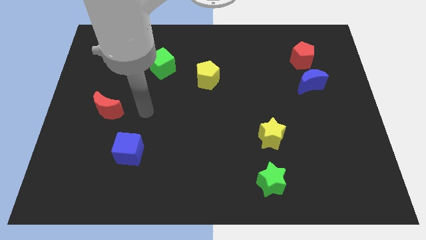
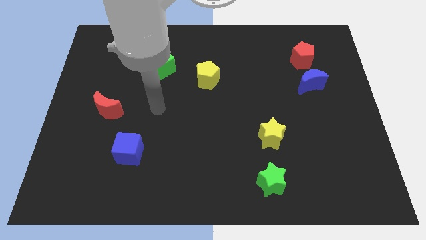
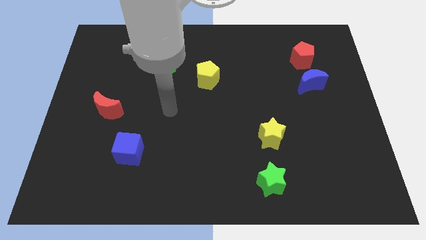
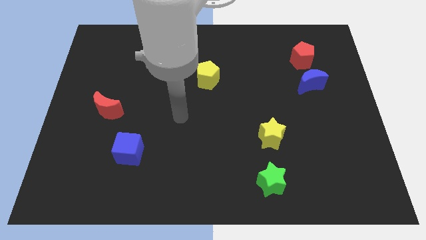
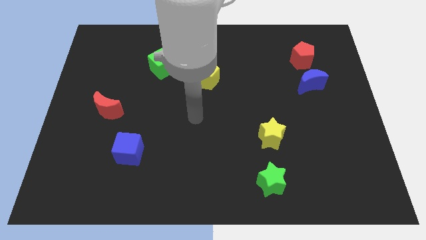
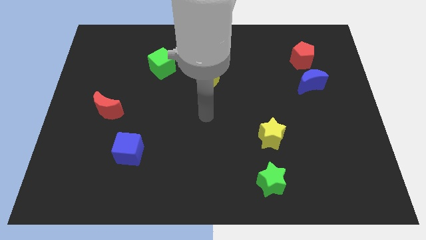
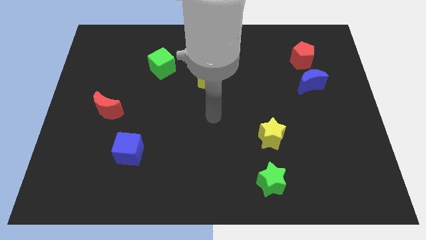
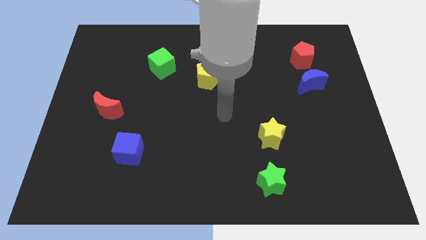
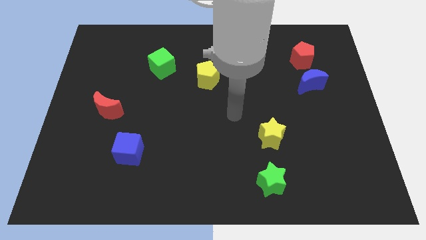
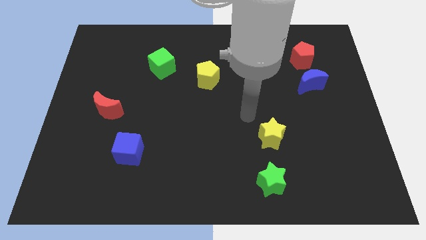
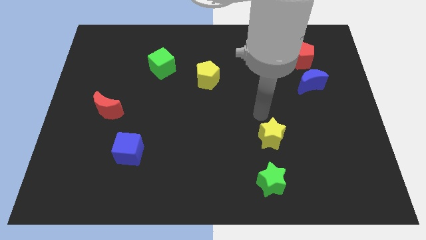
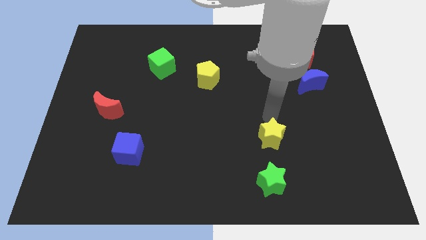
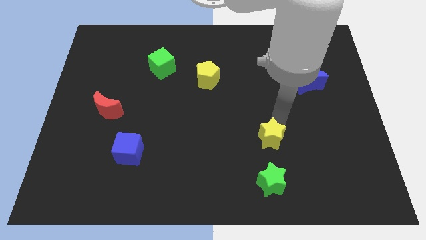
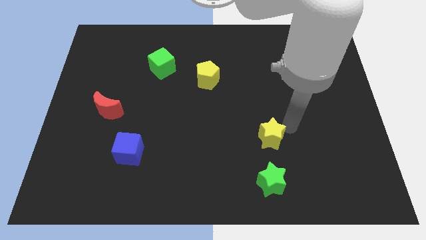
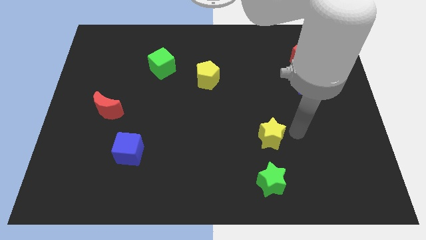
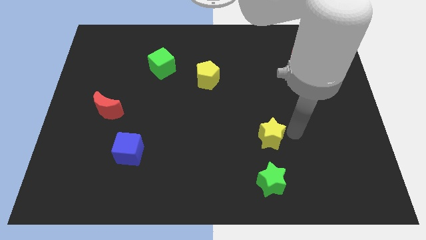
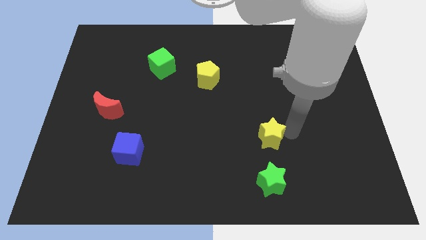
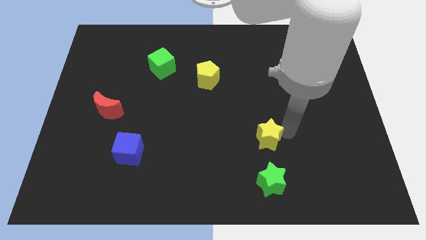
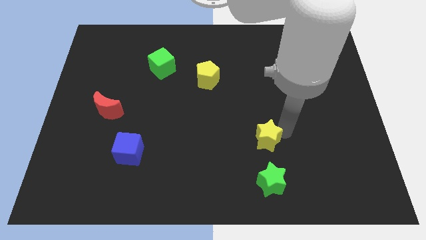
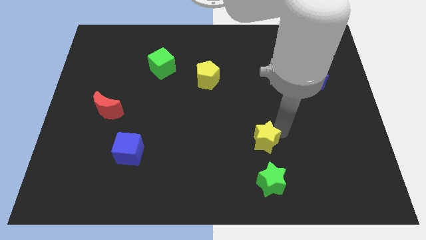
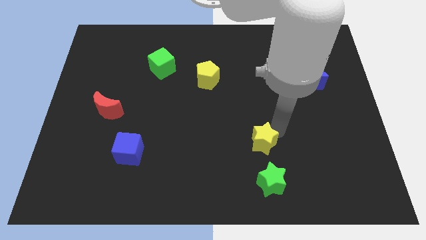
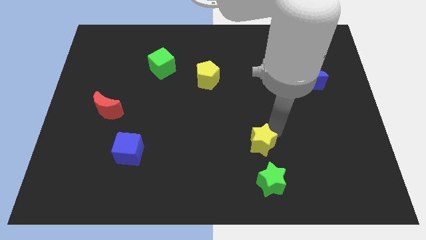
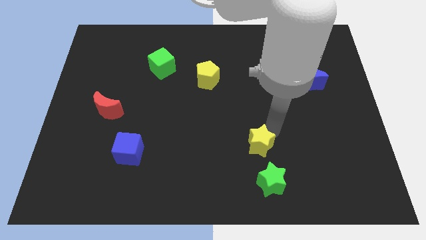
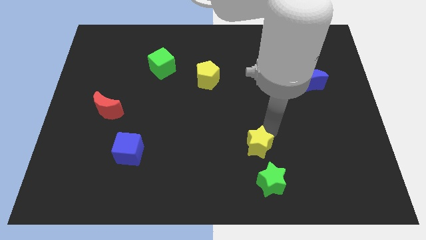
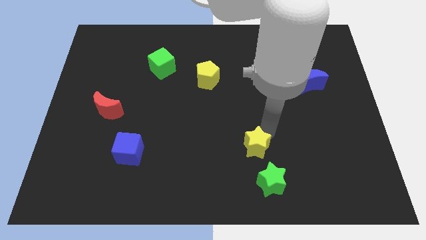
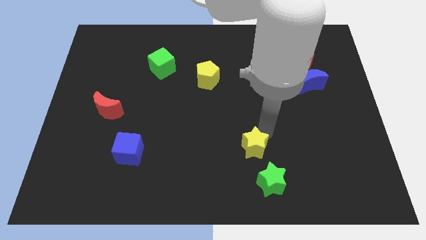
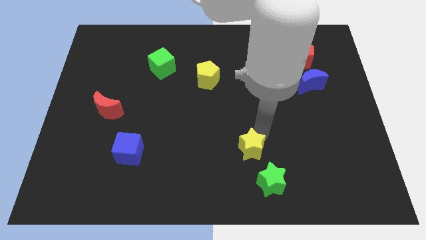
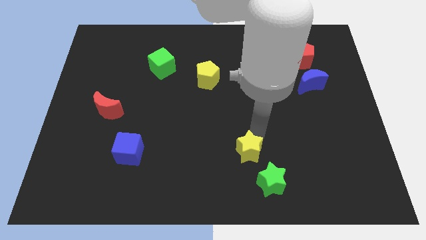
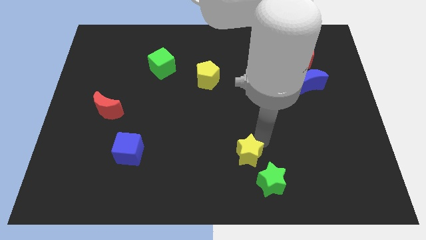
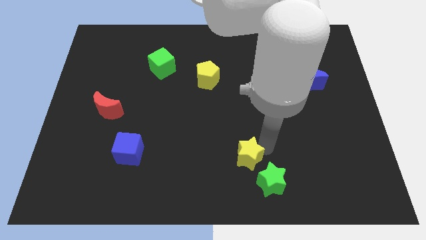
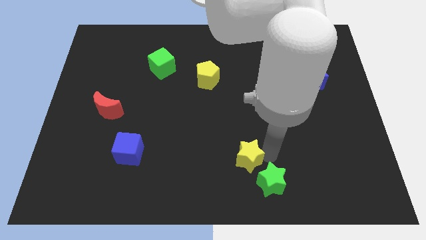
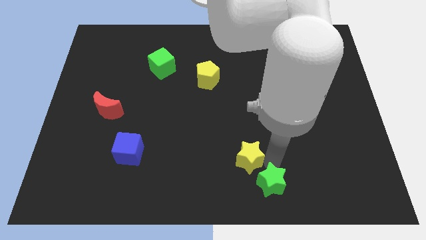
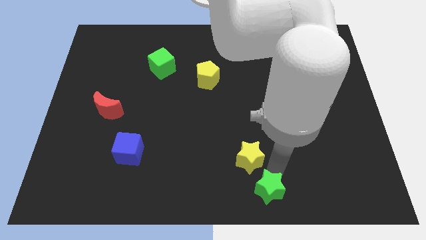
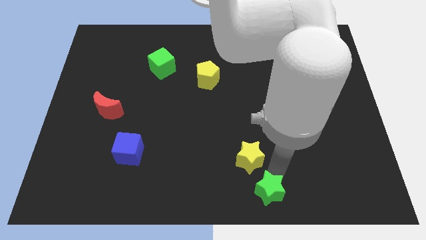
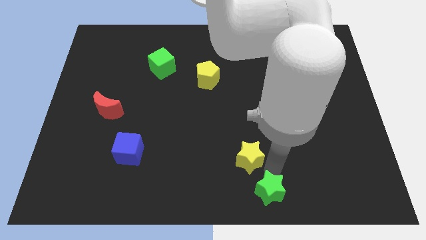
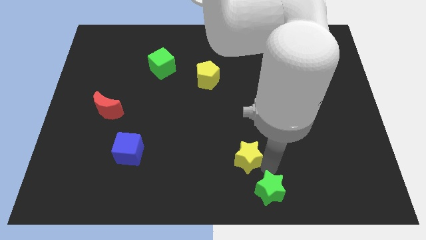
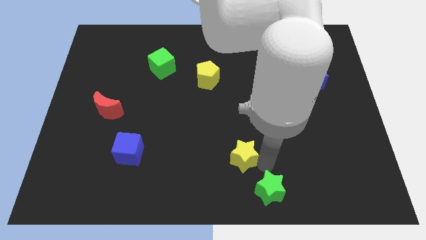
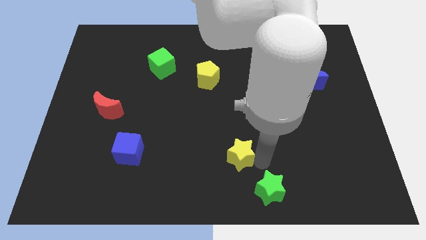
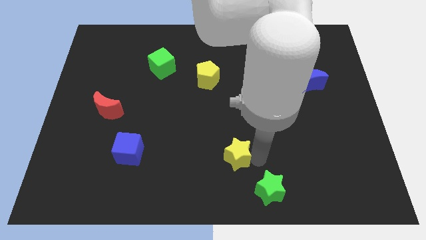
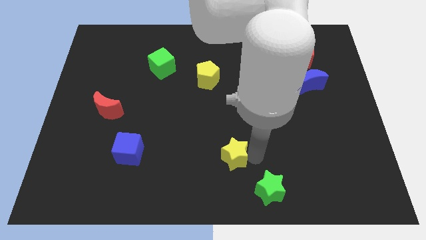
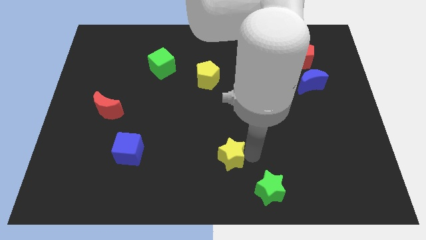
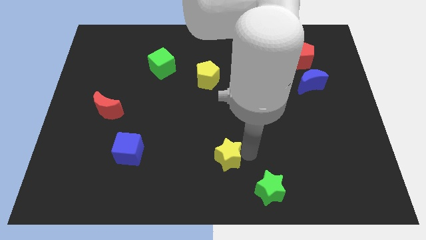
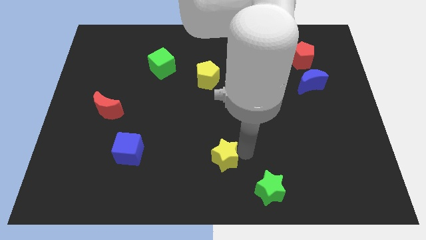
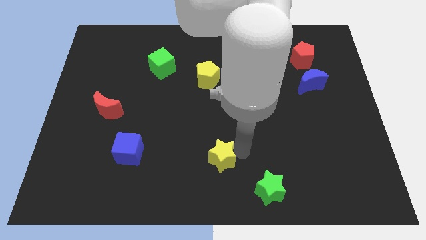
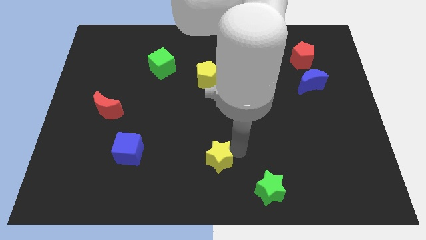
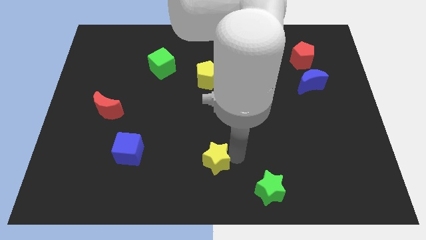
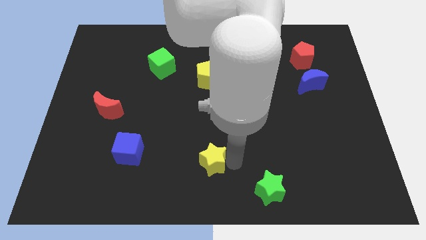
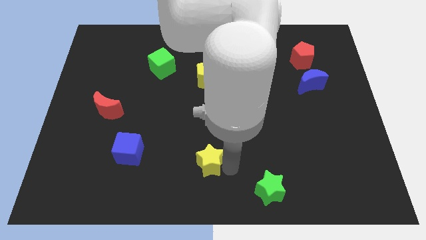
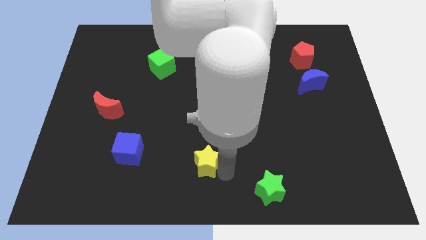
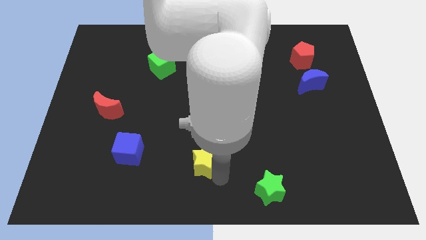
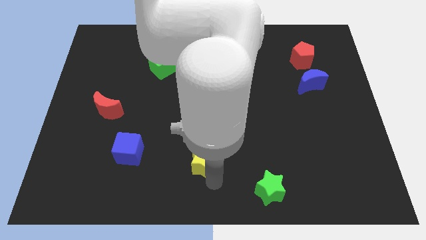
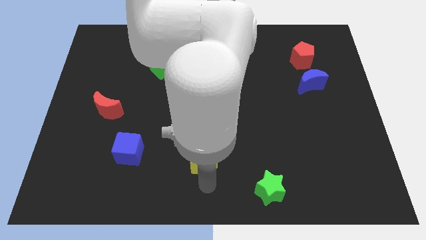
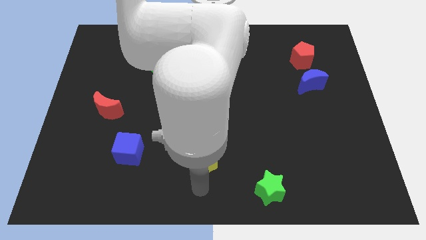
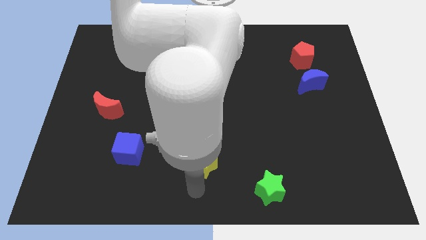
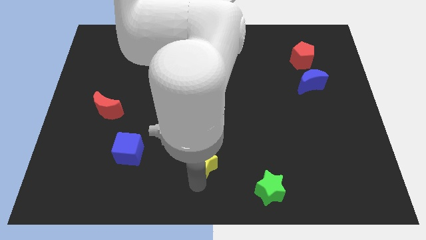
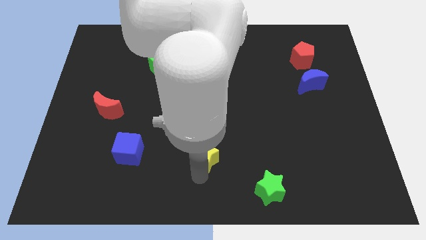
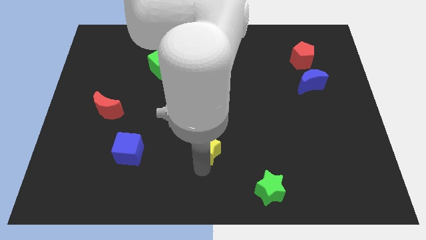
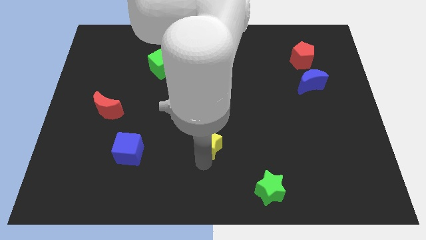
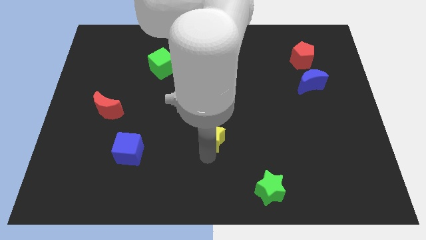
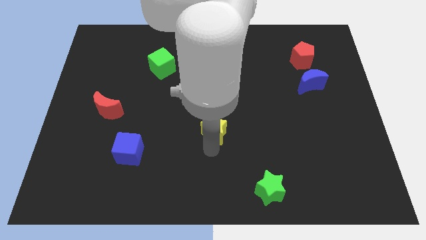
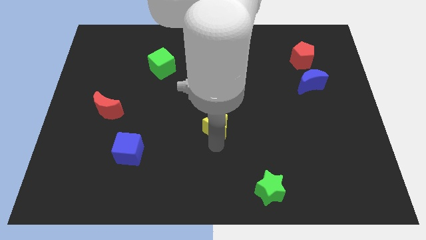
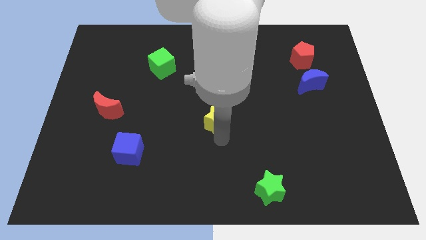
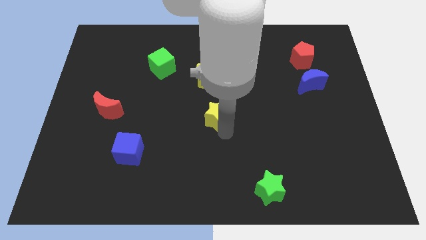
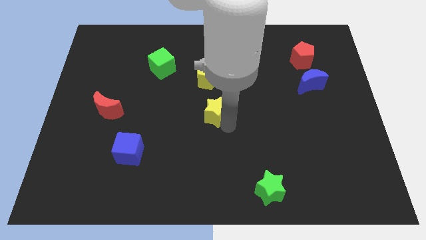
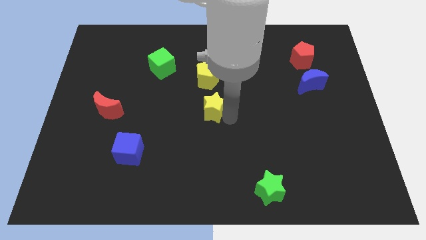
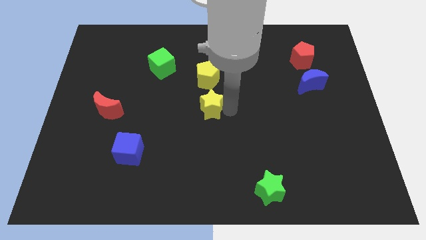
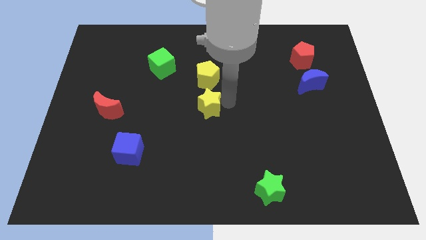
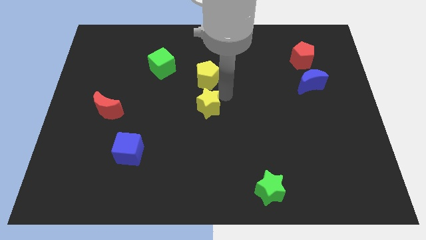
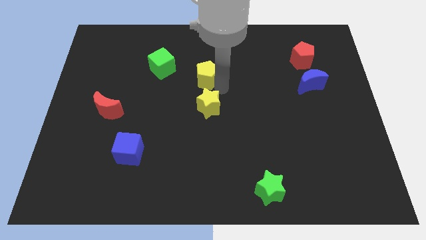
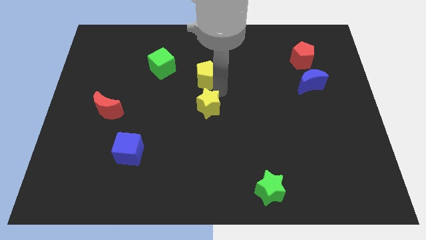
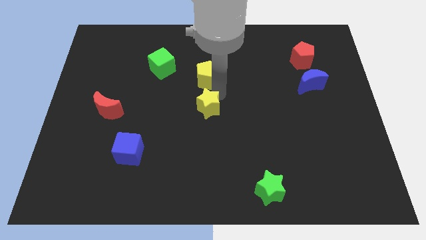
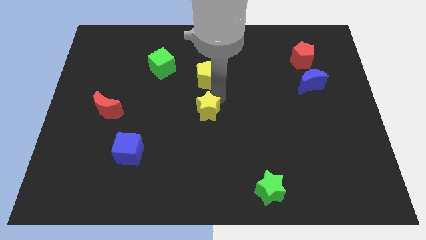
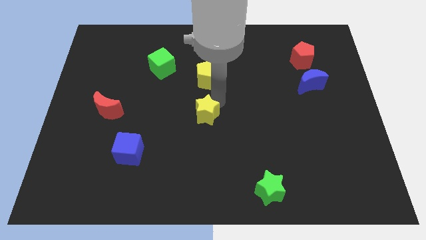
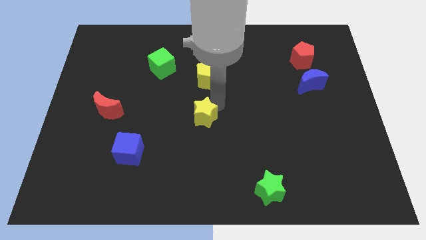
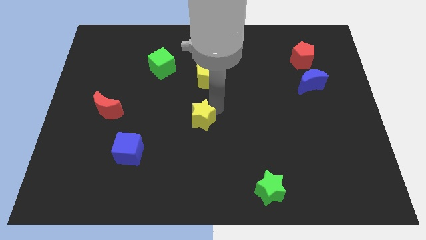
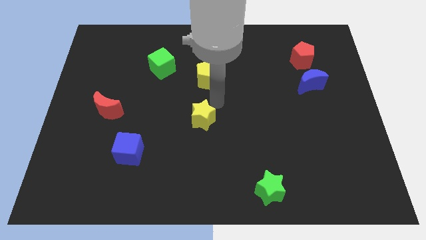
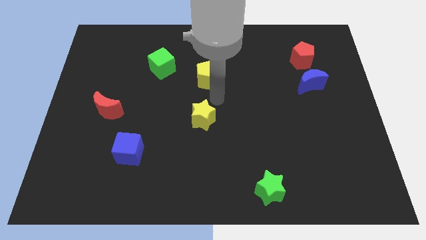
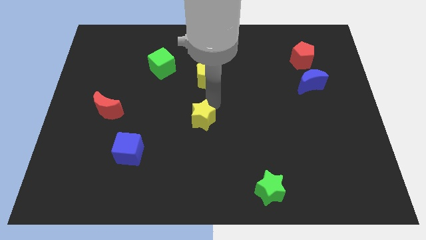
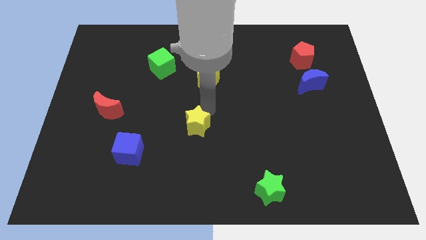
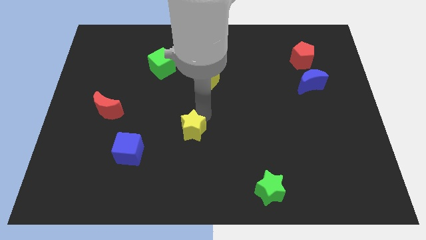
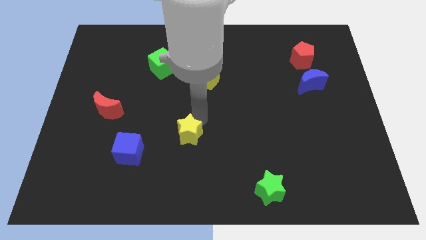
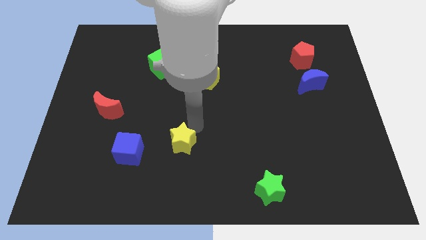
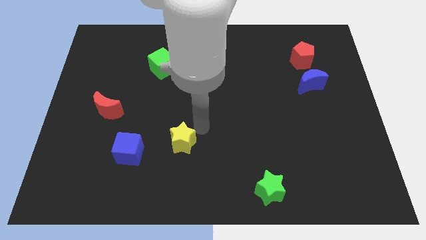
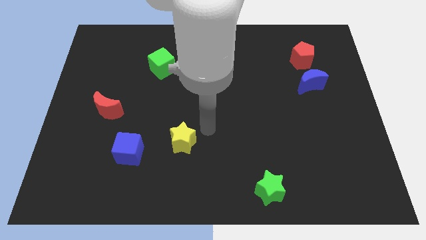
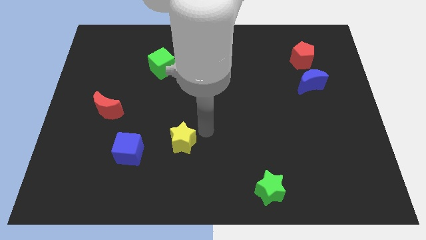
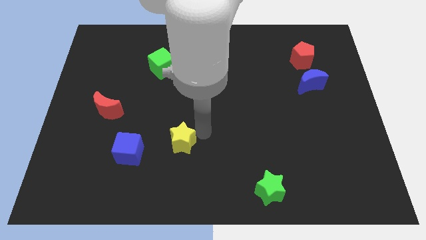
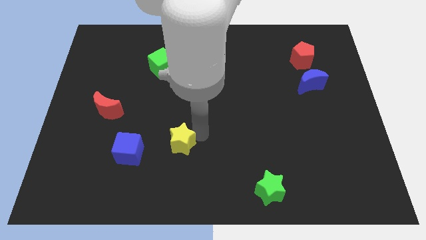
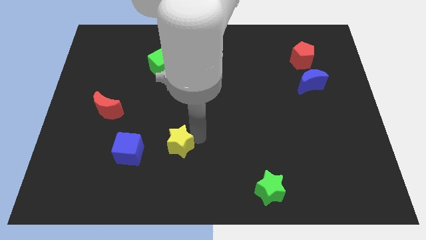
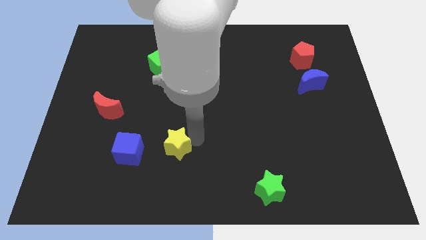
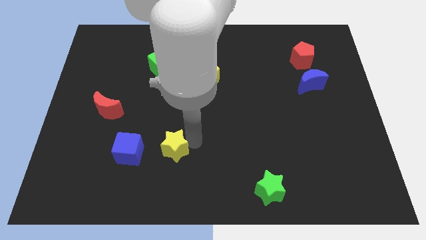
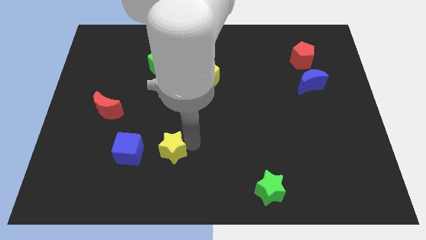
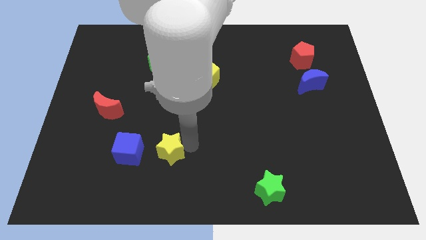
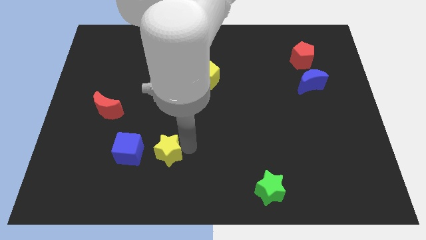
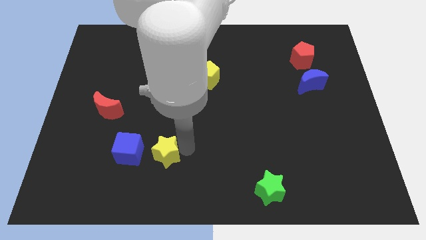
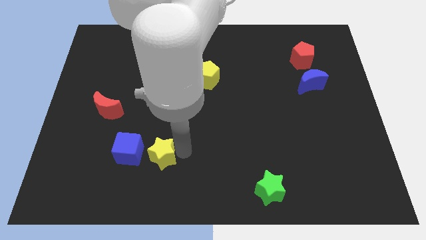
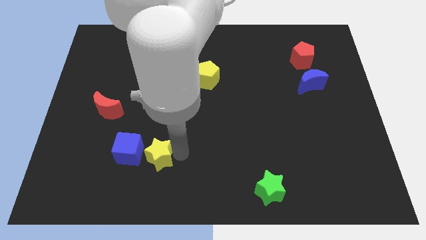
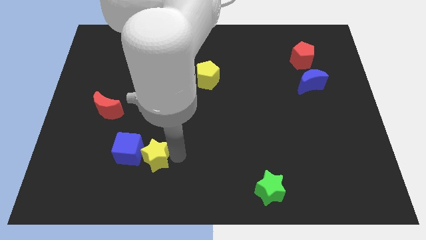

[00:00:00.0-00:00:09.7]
put the yellow star close to the blue cube
